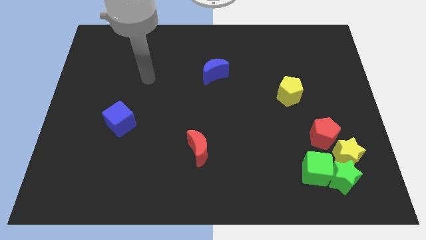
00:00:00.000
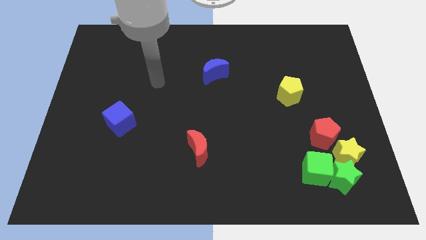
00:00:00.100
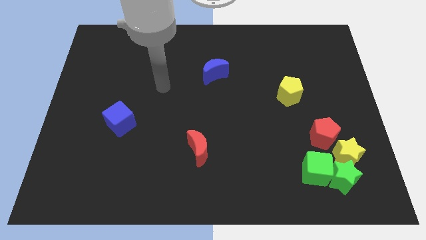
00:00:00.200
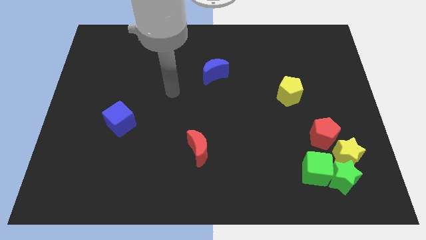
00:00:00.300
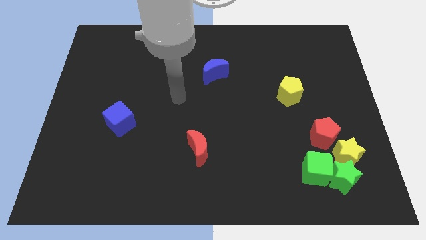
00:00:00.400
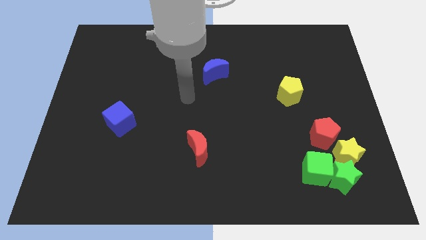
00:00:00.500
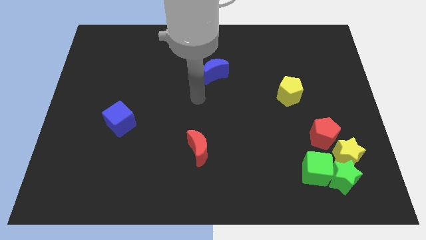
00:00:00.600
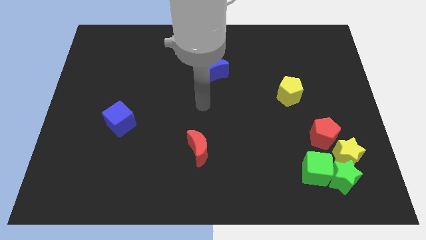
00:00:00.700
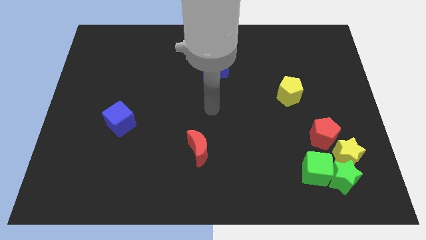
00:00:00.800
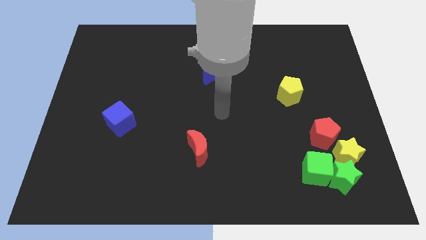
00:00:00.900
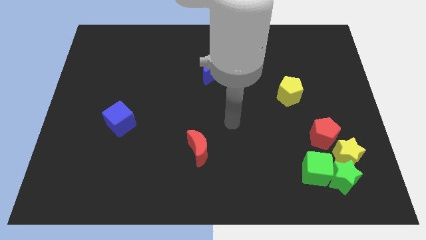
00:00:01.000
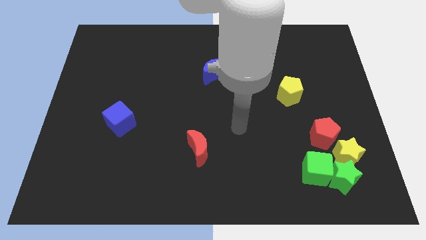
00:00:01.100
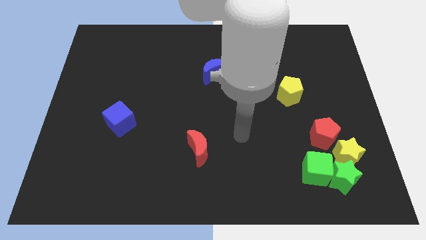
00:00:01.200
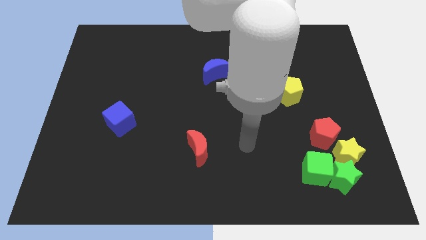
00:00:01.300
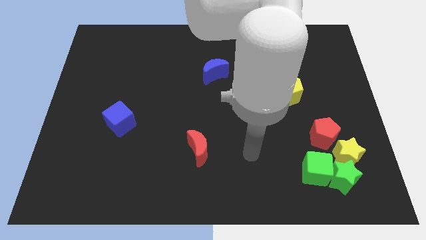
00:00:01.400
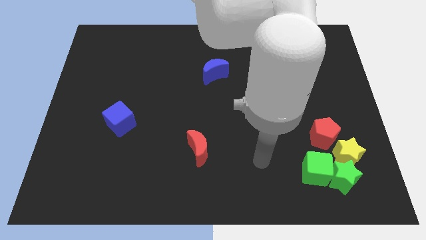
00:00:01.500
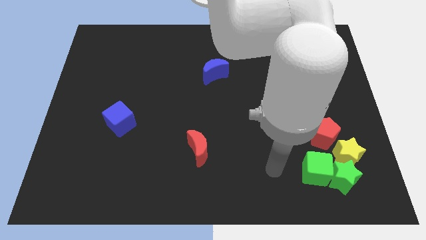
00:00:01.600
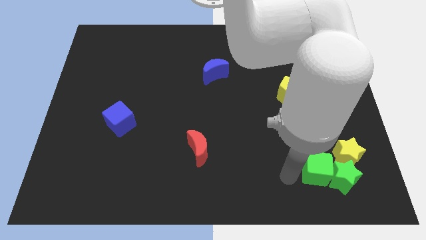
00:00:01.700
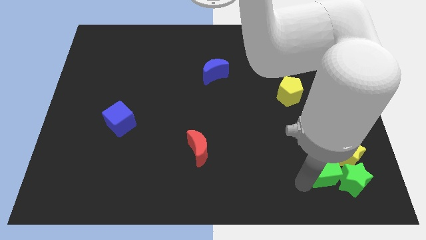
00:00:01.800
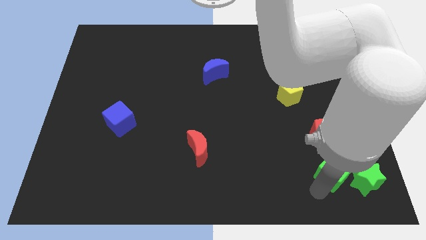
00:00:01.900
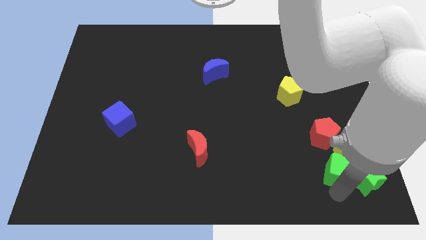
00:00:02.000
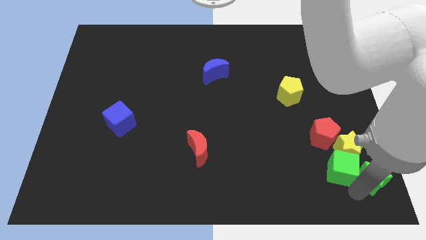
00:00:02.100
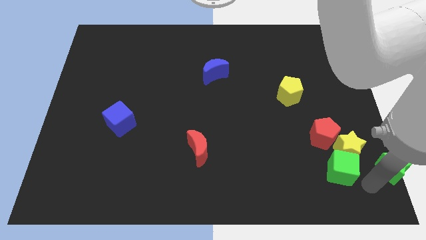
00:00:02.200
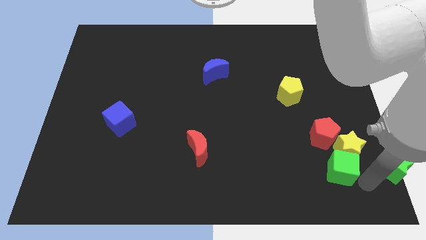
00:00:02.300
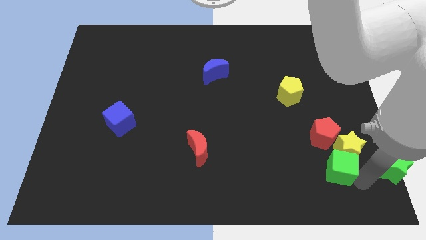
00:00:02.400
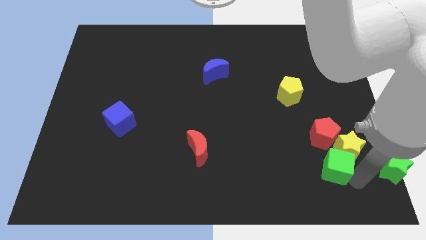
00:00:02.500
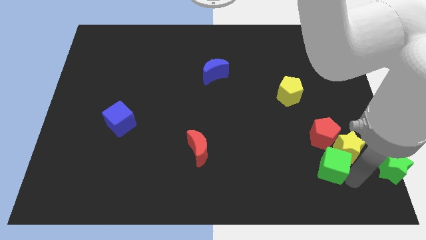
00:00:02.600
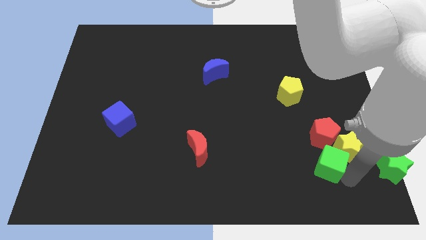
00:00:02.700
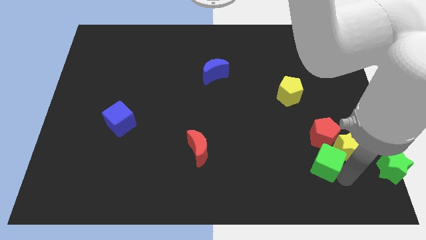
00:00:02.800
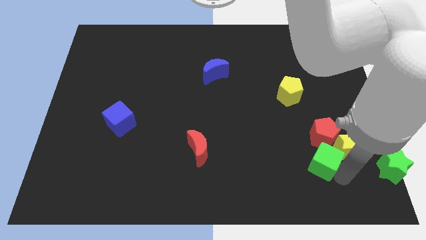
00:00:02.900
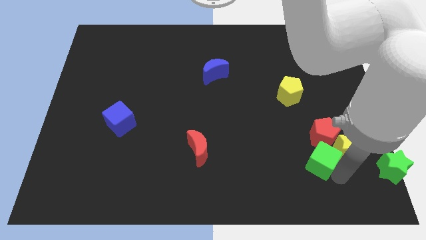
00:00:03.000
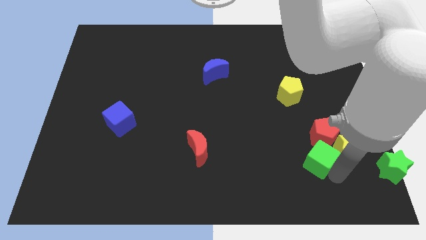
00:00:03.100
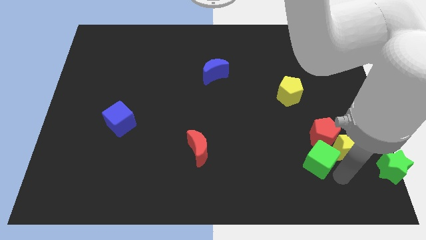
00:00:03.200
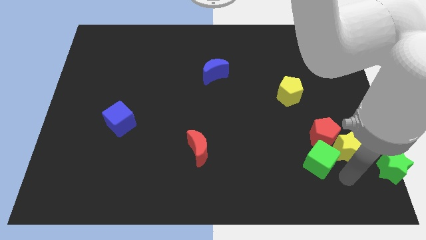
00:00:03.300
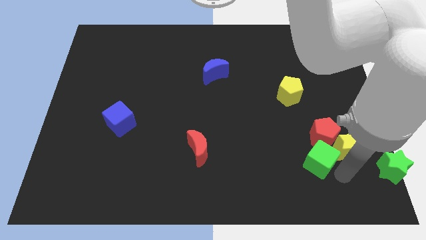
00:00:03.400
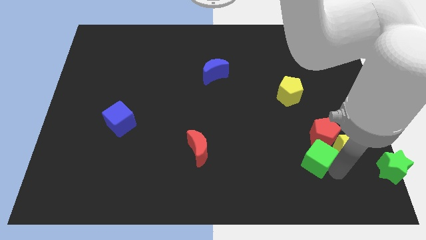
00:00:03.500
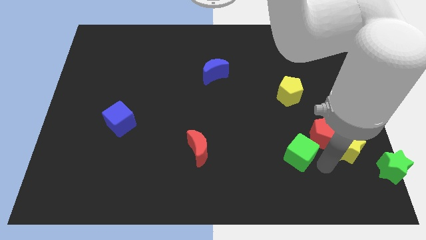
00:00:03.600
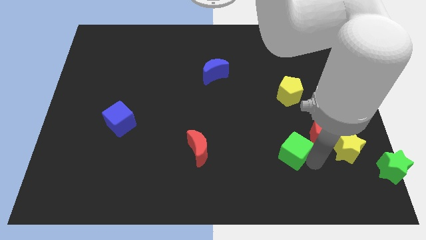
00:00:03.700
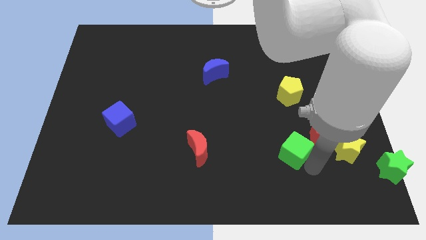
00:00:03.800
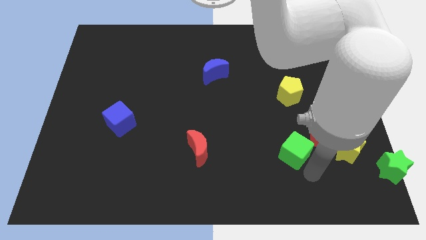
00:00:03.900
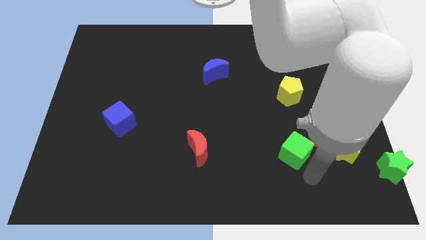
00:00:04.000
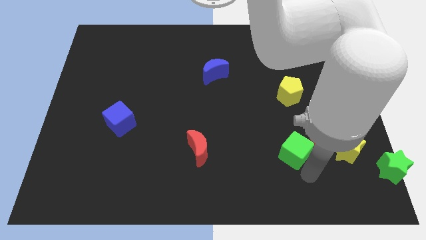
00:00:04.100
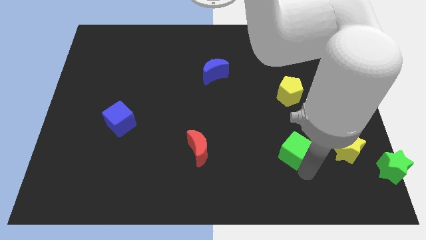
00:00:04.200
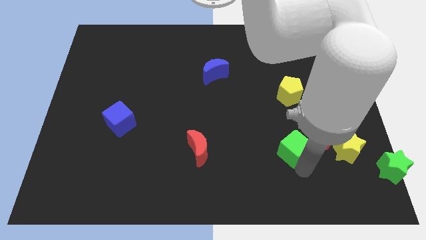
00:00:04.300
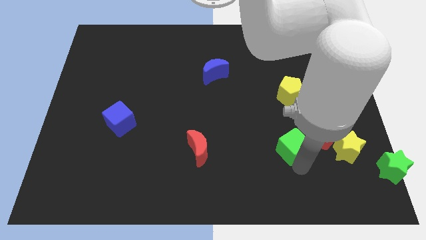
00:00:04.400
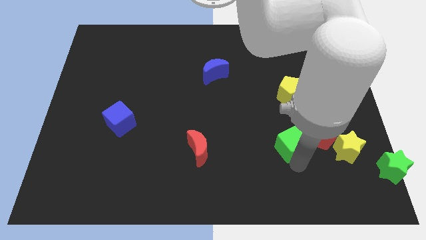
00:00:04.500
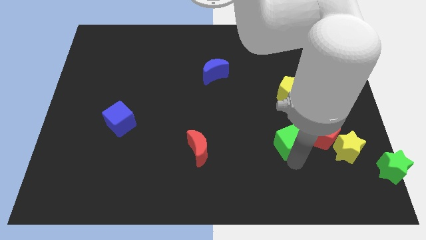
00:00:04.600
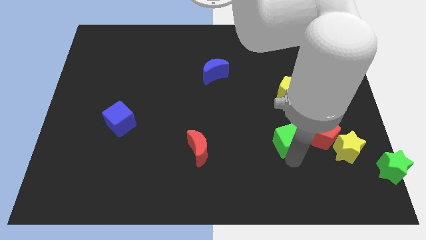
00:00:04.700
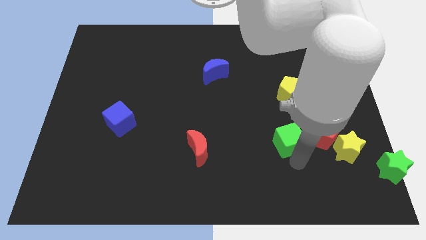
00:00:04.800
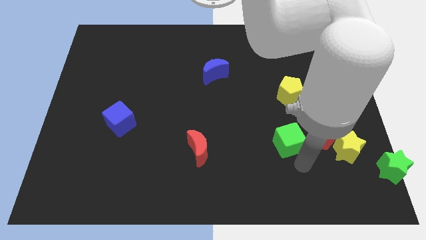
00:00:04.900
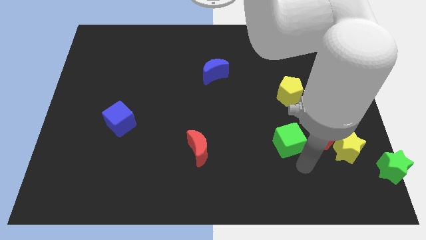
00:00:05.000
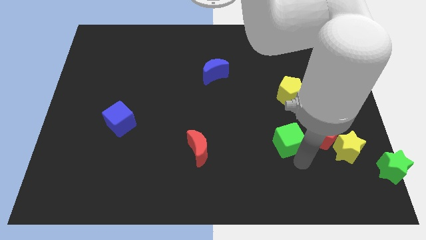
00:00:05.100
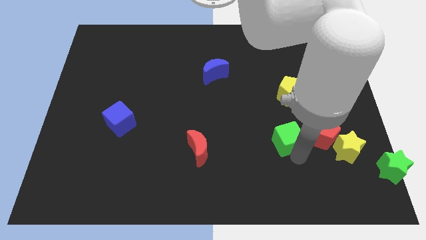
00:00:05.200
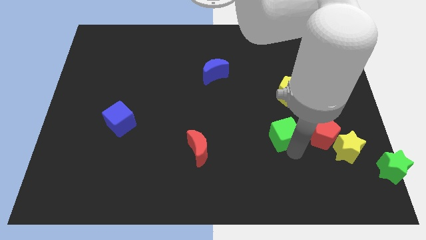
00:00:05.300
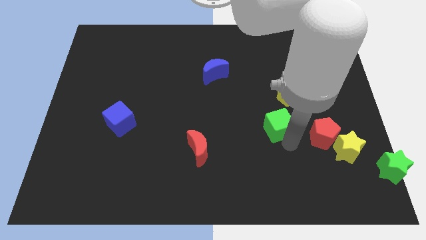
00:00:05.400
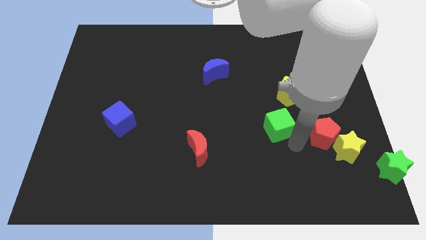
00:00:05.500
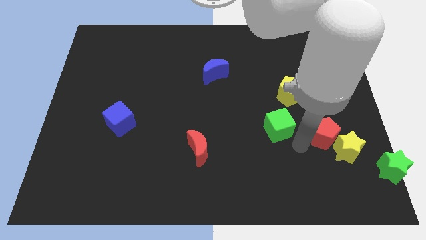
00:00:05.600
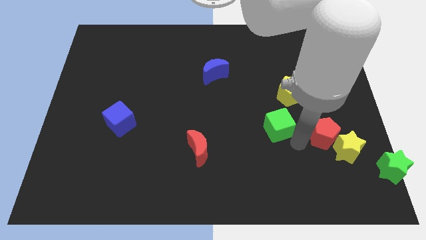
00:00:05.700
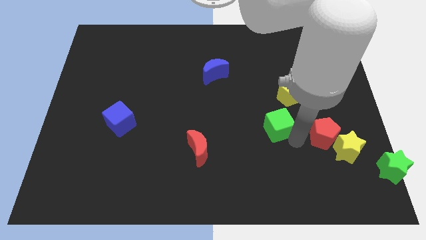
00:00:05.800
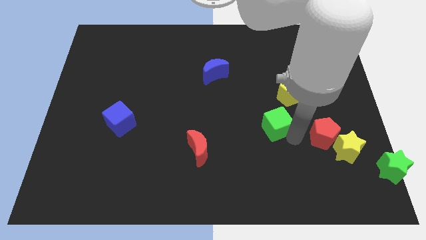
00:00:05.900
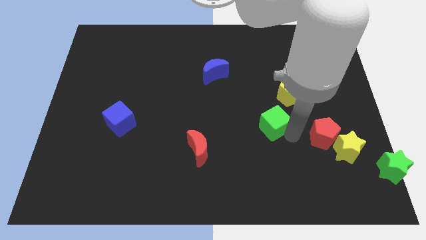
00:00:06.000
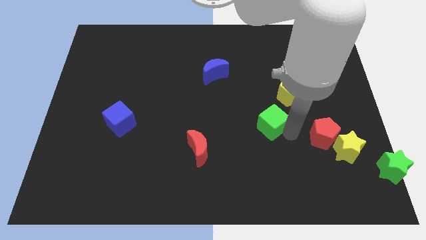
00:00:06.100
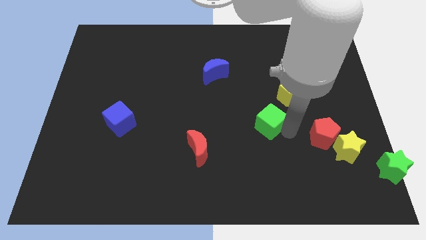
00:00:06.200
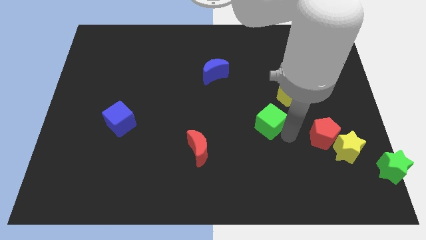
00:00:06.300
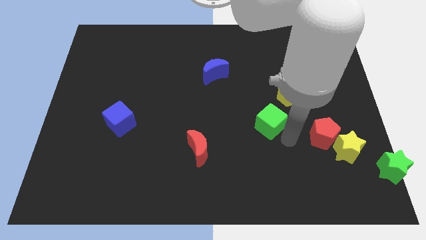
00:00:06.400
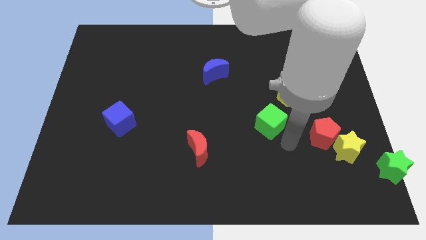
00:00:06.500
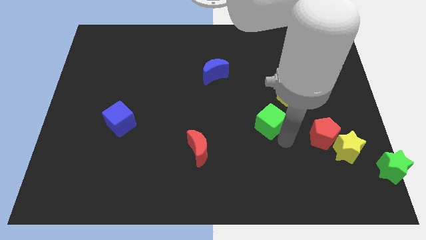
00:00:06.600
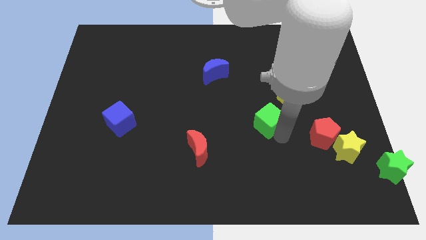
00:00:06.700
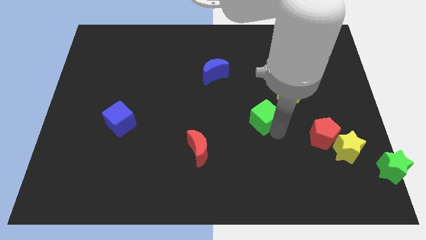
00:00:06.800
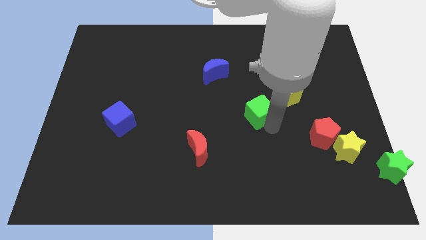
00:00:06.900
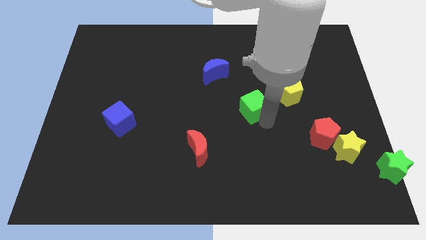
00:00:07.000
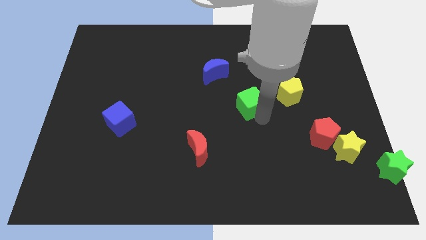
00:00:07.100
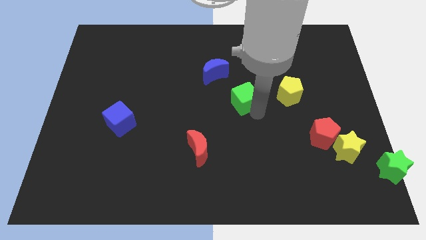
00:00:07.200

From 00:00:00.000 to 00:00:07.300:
move the green cube to the bottom right side of the blue moon
